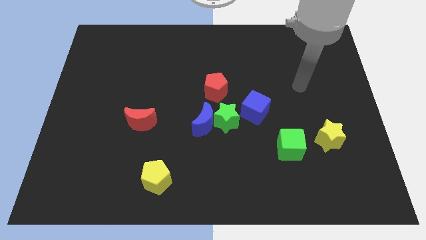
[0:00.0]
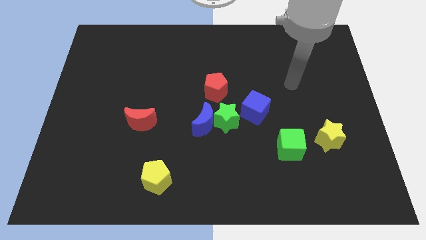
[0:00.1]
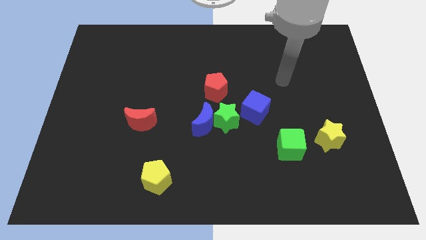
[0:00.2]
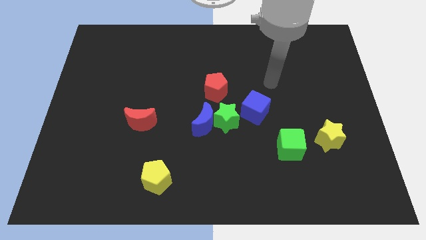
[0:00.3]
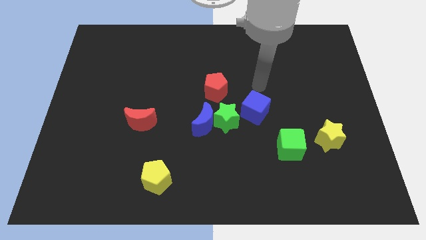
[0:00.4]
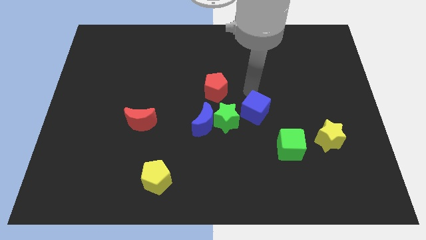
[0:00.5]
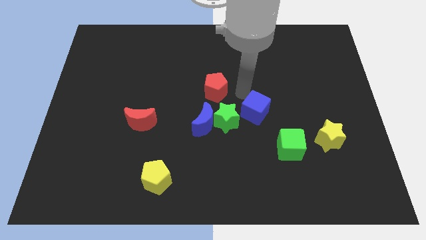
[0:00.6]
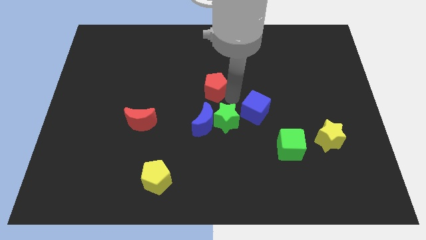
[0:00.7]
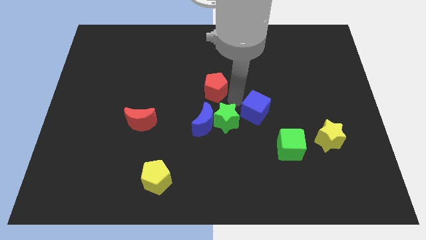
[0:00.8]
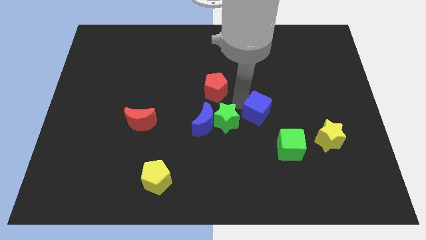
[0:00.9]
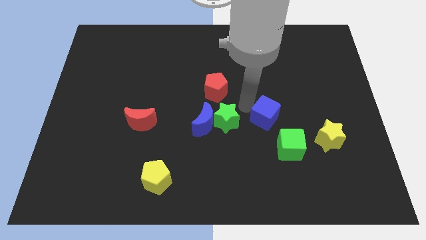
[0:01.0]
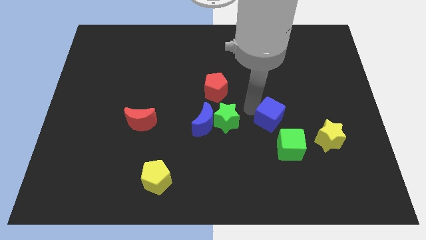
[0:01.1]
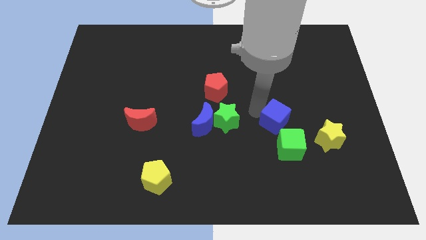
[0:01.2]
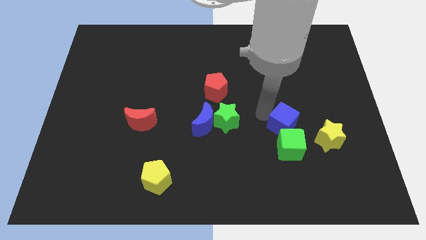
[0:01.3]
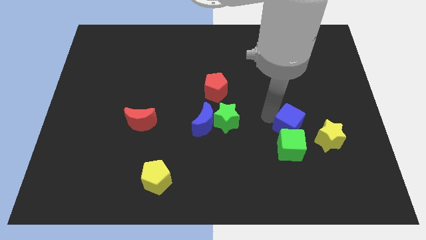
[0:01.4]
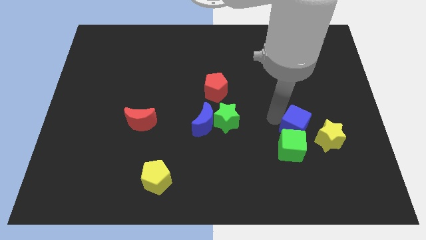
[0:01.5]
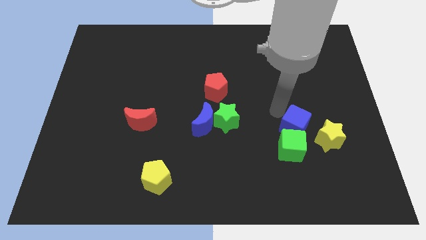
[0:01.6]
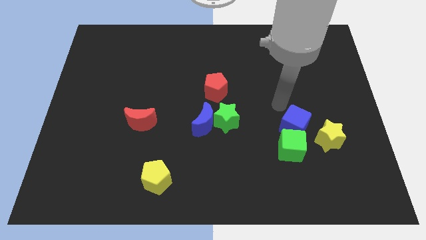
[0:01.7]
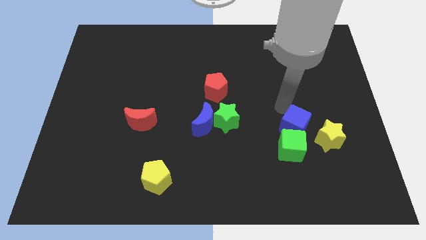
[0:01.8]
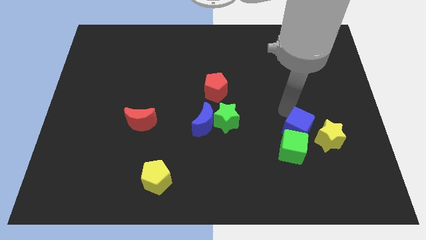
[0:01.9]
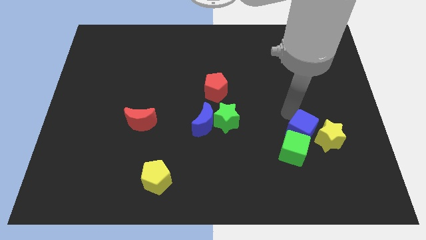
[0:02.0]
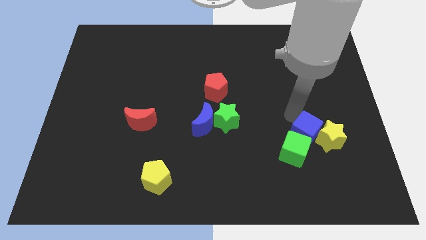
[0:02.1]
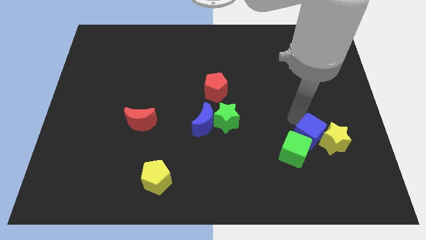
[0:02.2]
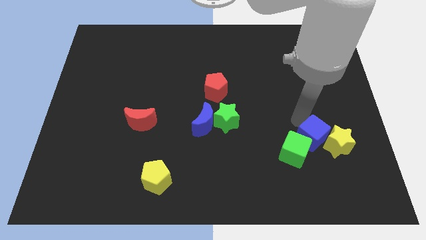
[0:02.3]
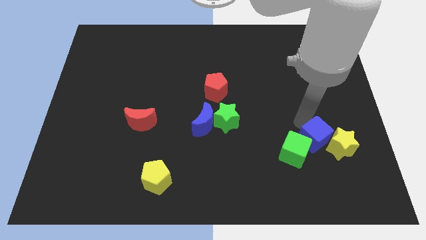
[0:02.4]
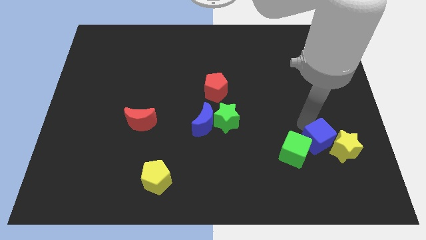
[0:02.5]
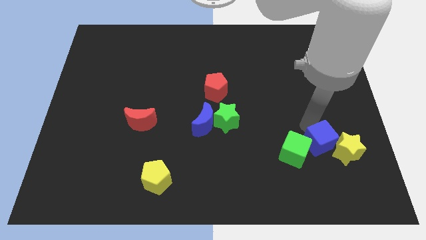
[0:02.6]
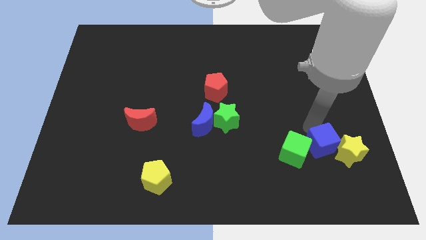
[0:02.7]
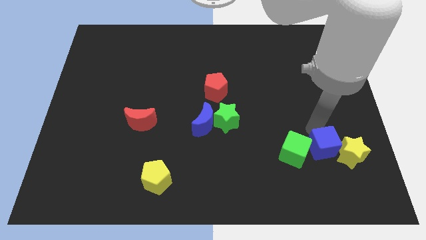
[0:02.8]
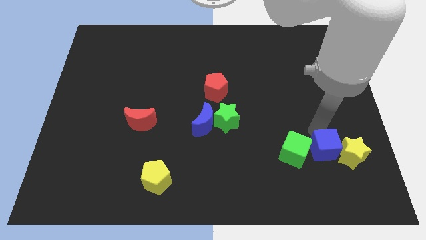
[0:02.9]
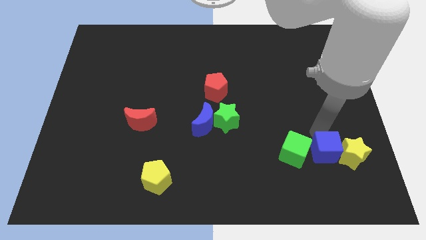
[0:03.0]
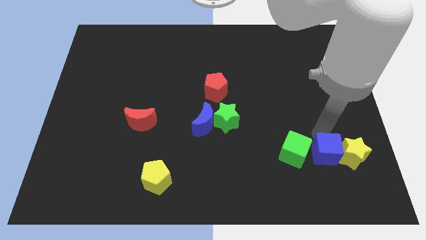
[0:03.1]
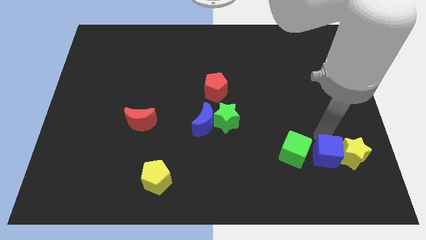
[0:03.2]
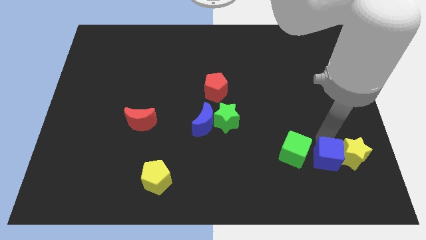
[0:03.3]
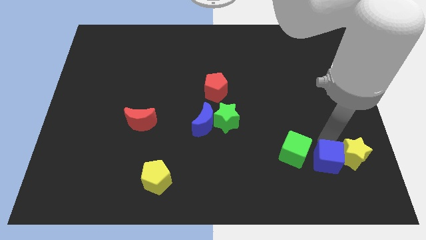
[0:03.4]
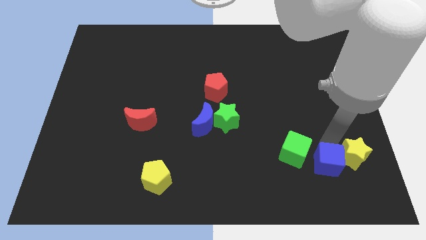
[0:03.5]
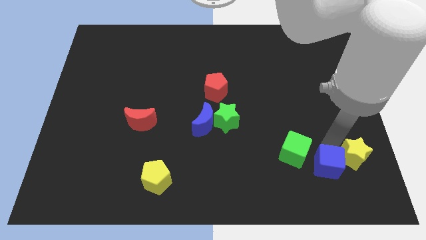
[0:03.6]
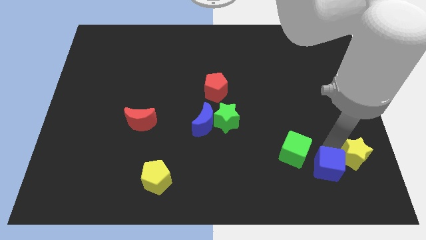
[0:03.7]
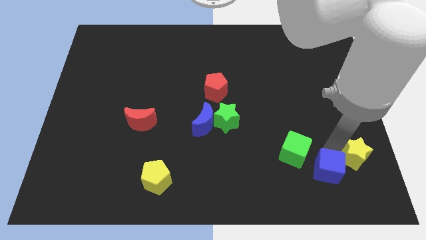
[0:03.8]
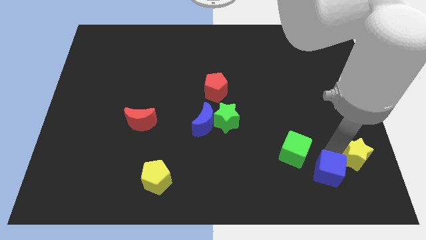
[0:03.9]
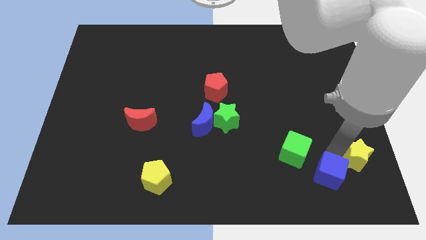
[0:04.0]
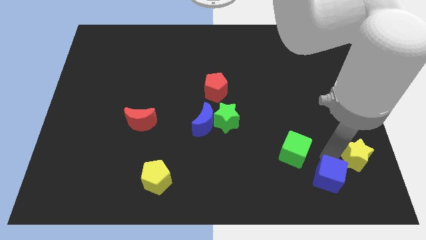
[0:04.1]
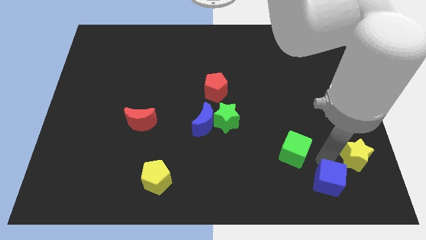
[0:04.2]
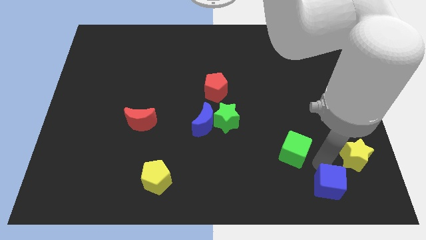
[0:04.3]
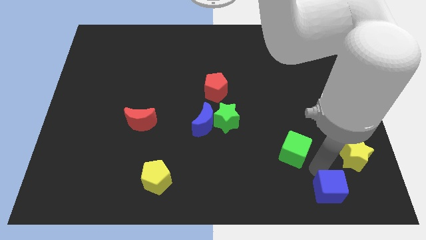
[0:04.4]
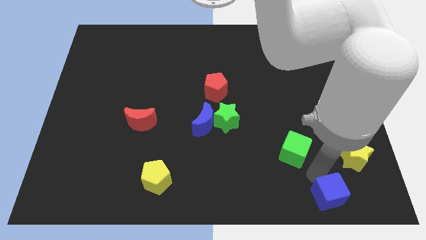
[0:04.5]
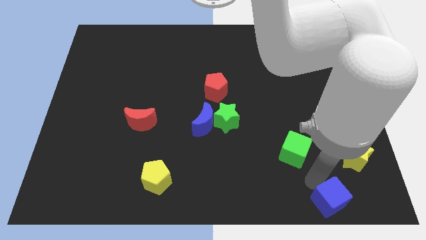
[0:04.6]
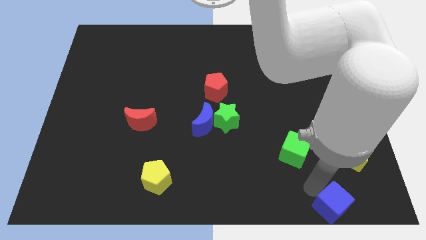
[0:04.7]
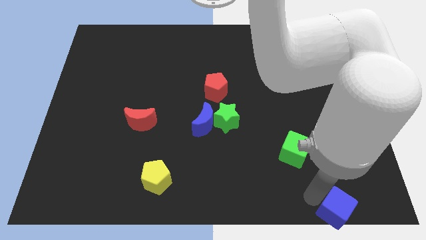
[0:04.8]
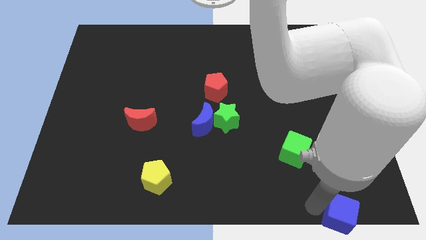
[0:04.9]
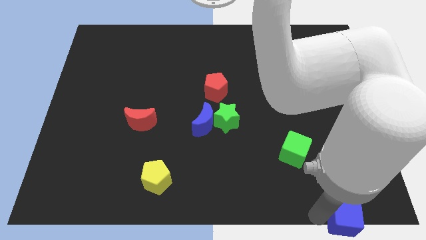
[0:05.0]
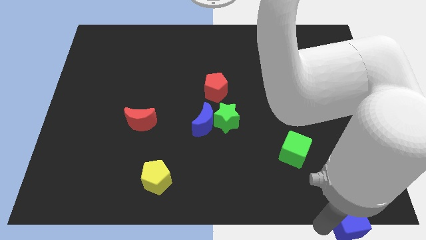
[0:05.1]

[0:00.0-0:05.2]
put the blue cube to the bottom right
